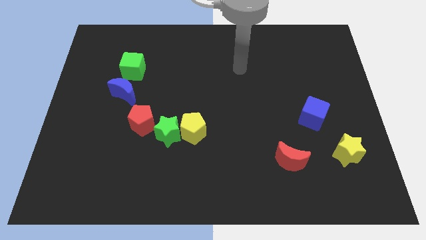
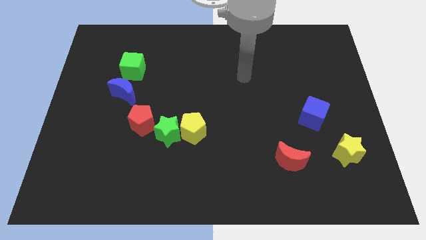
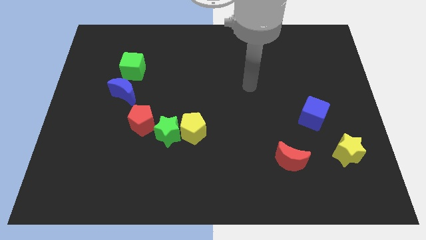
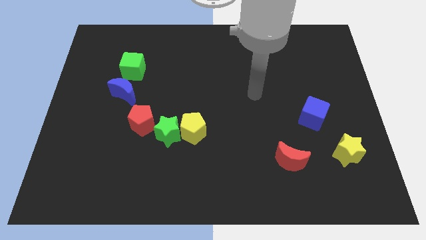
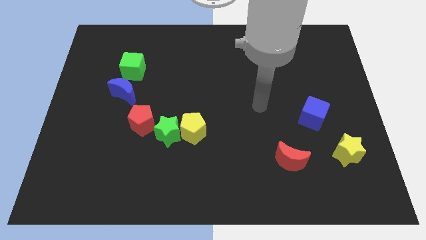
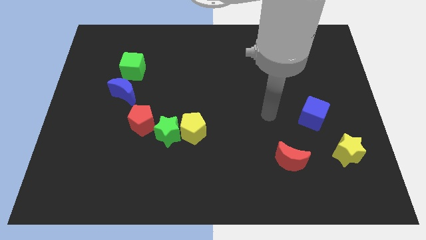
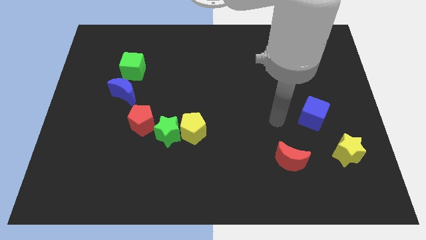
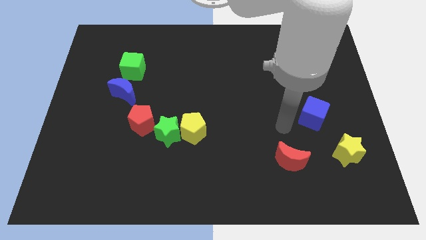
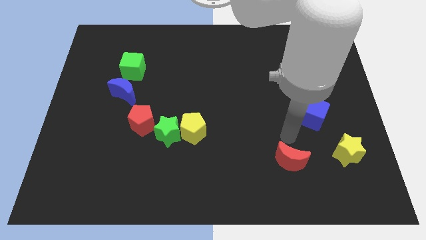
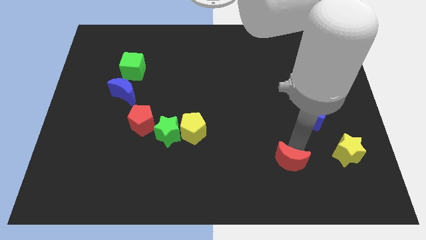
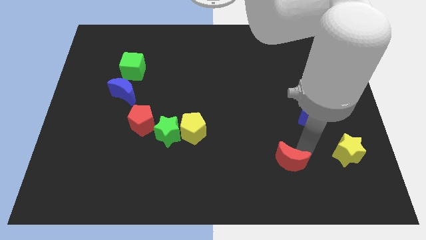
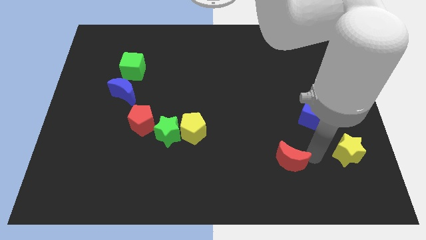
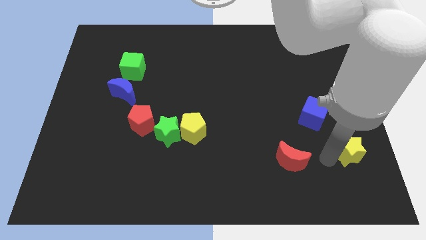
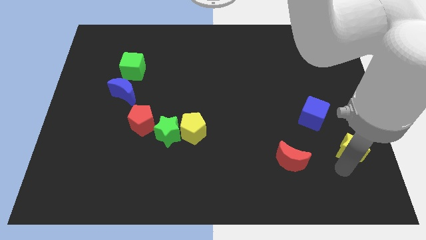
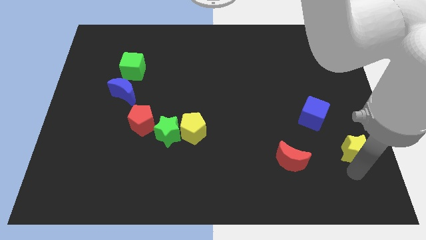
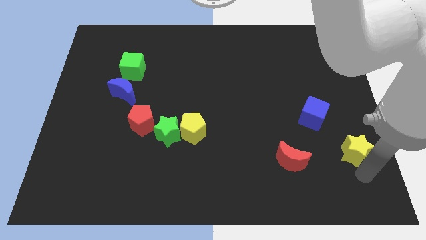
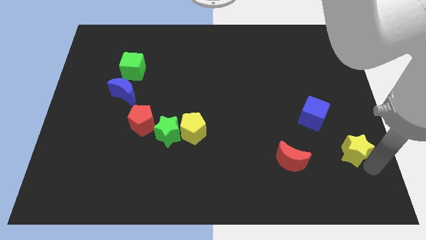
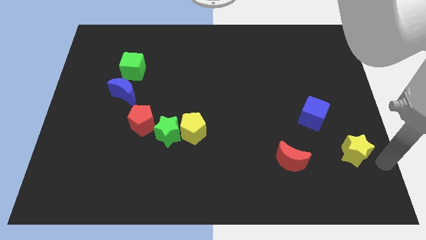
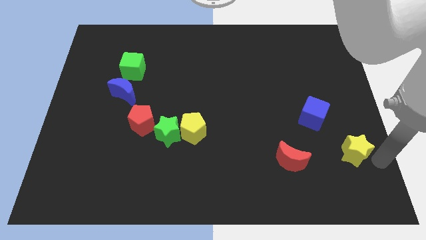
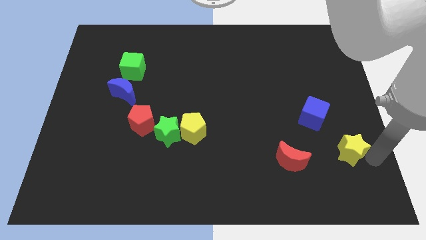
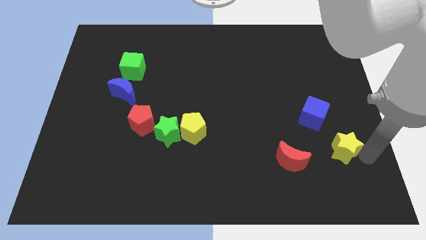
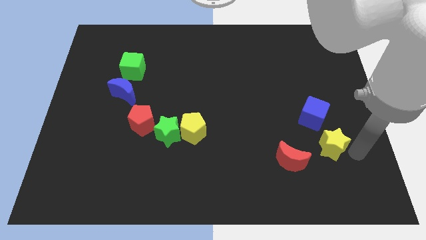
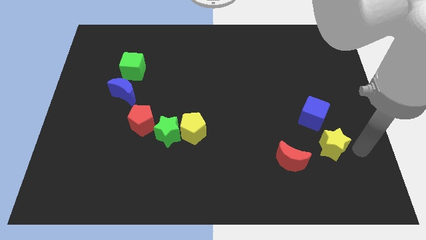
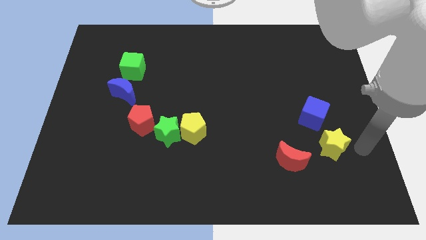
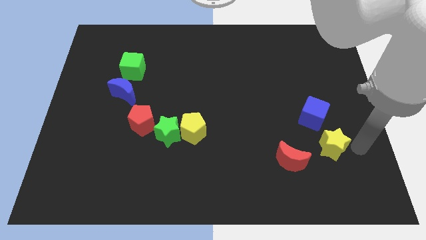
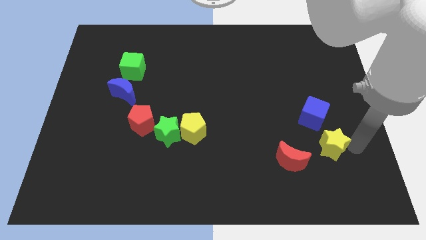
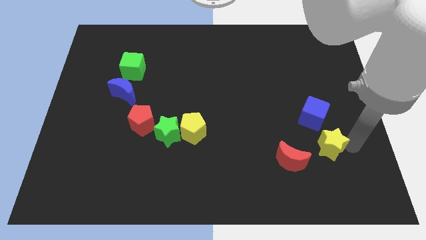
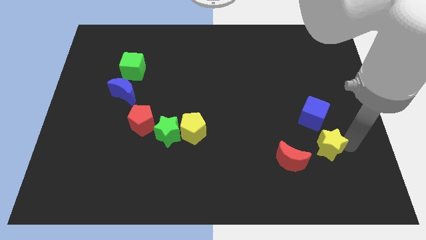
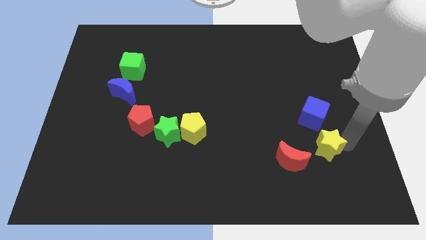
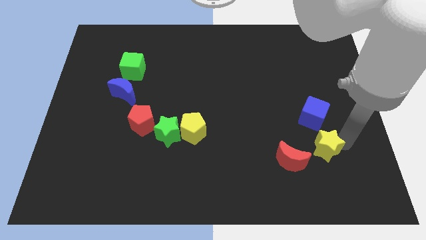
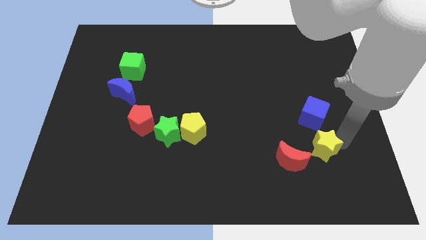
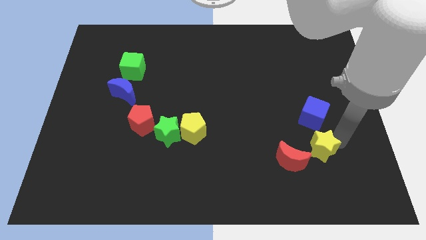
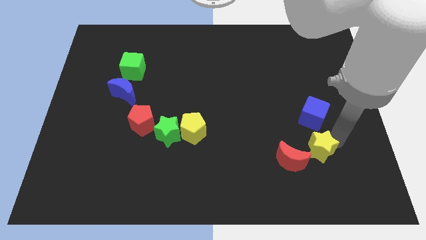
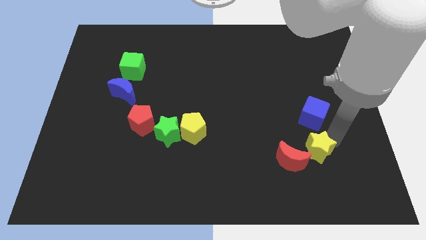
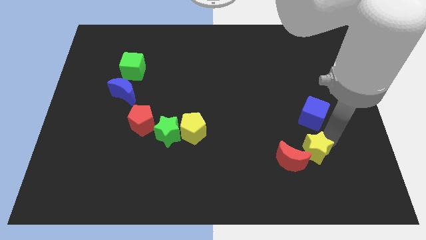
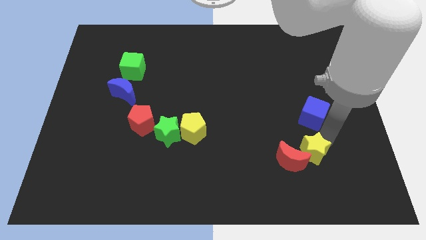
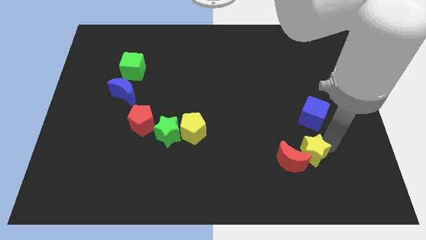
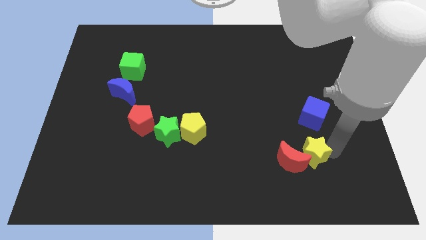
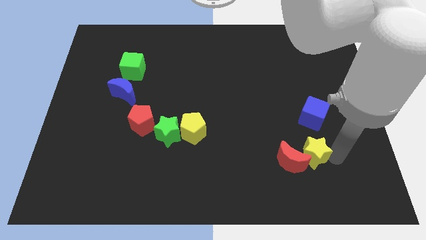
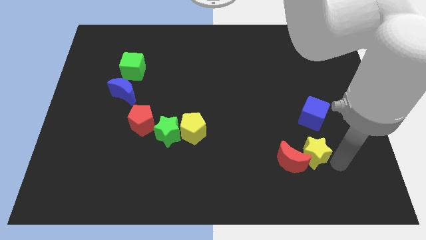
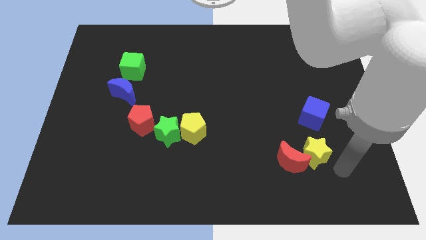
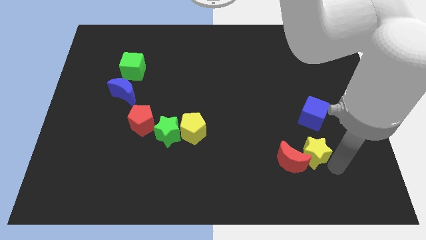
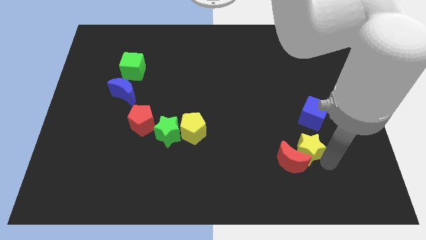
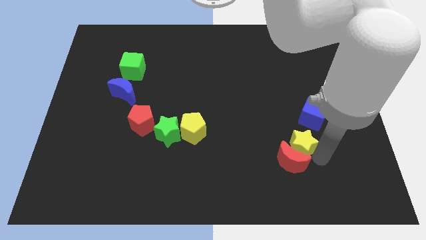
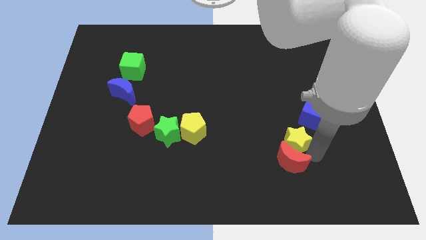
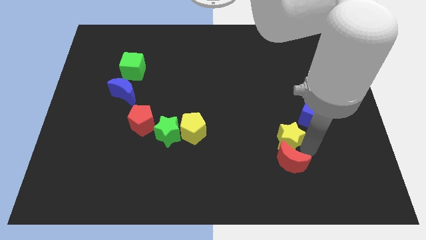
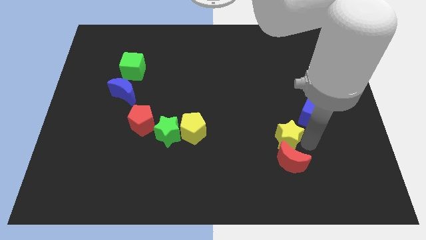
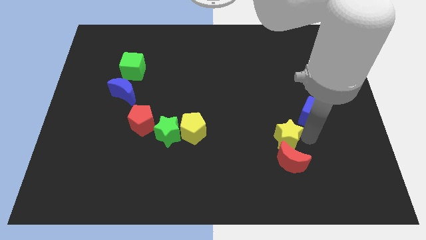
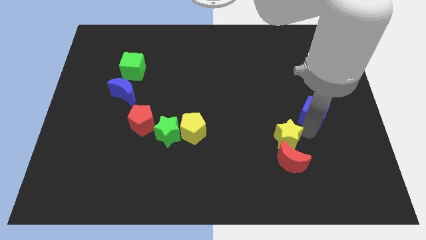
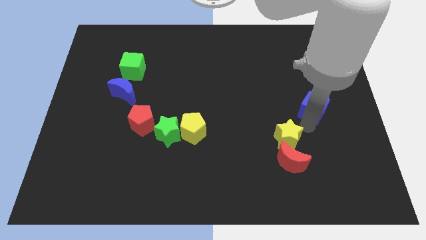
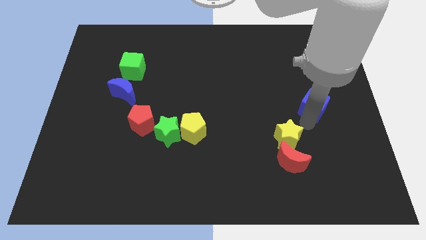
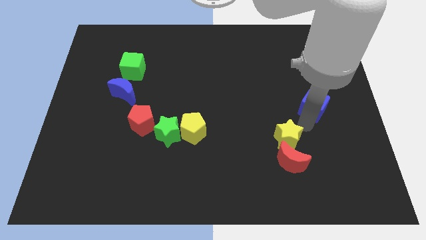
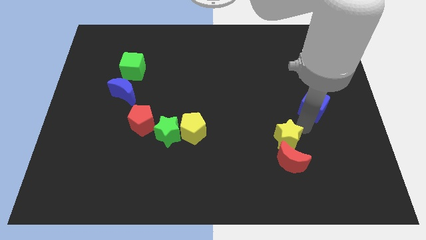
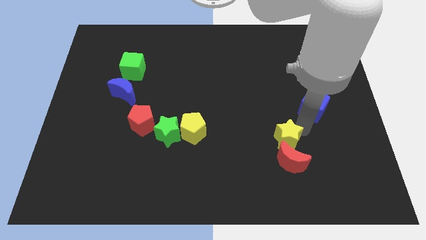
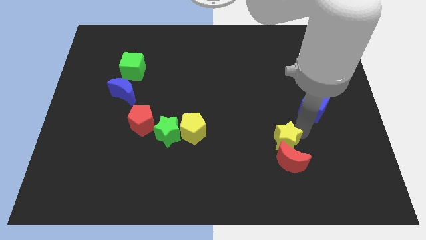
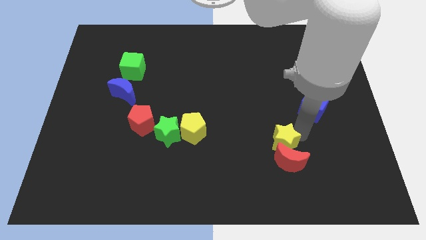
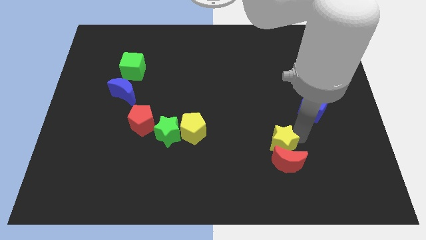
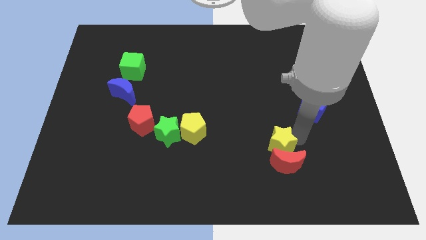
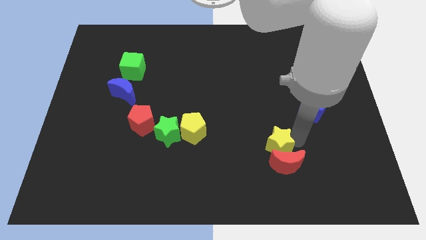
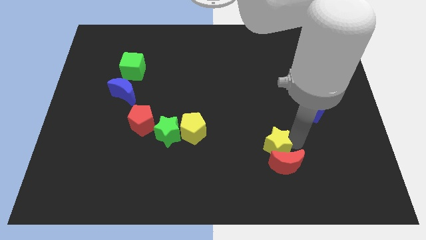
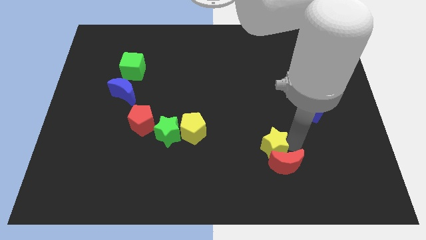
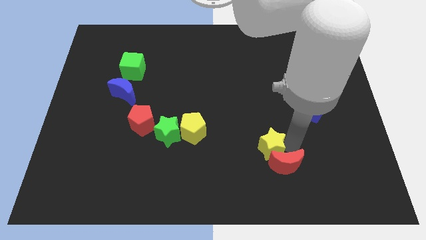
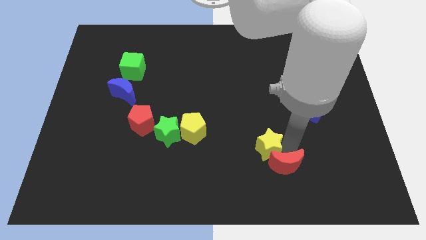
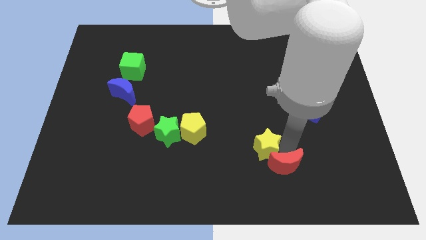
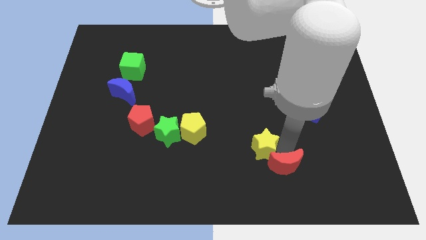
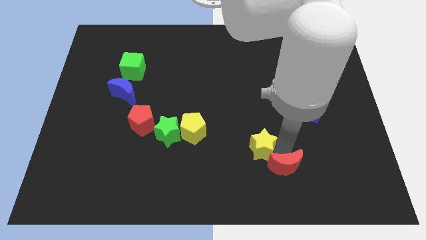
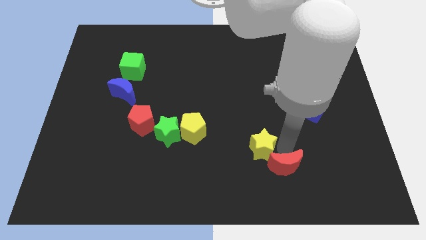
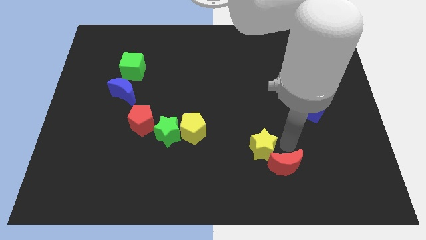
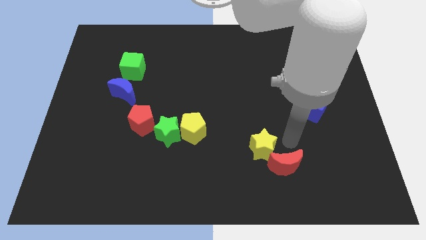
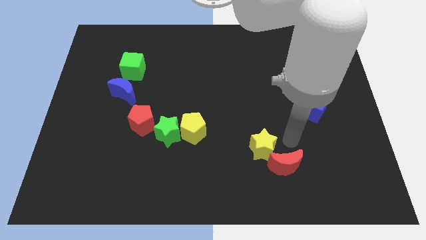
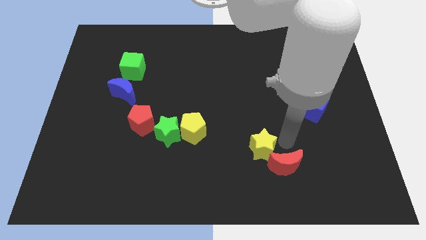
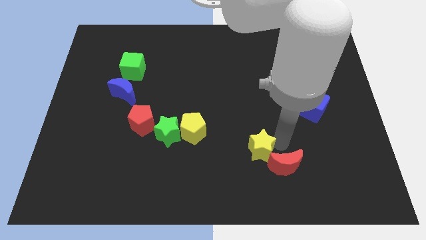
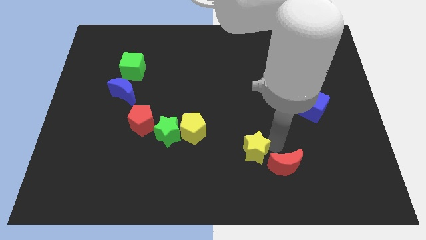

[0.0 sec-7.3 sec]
slide the yellow star to the left

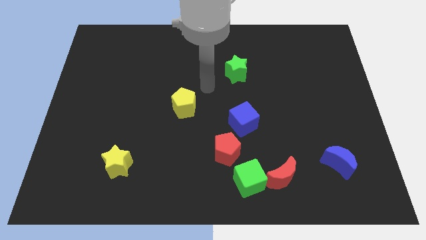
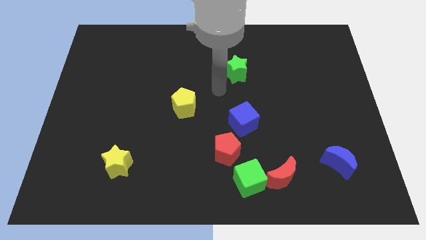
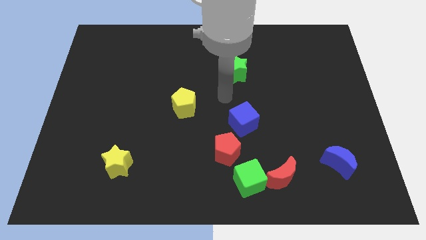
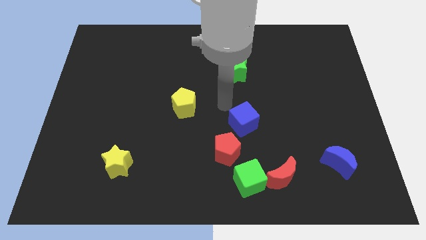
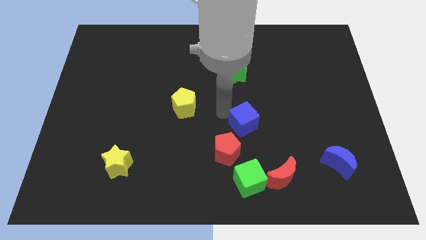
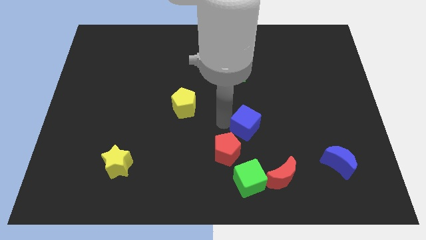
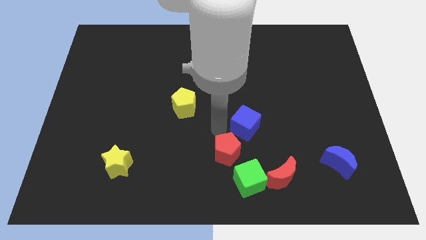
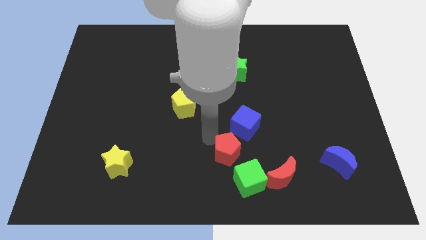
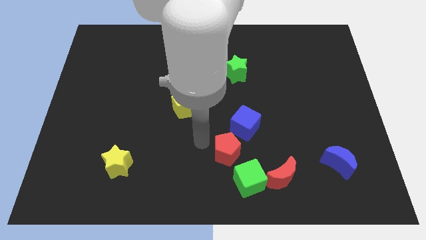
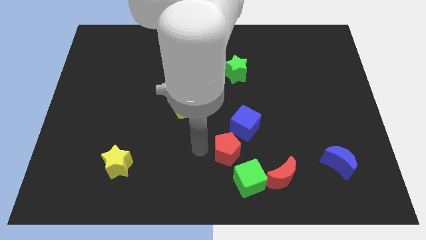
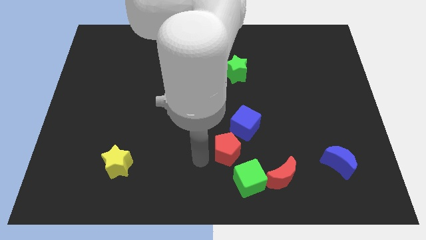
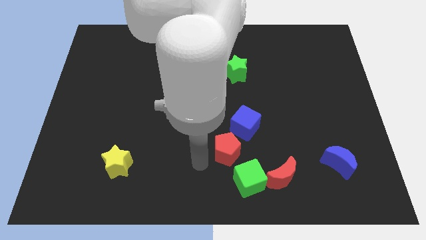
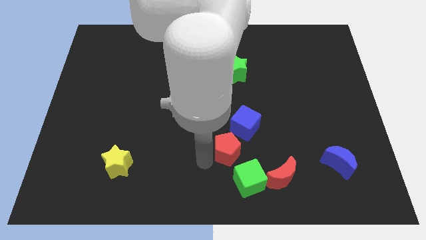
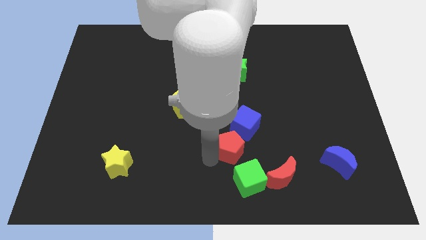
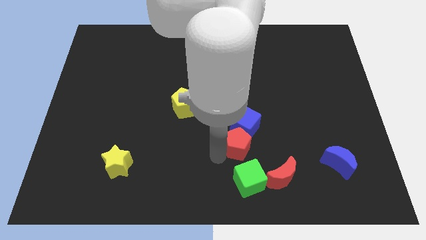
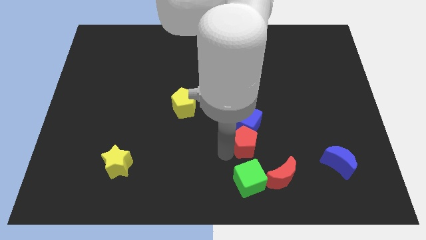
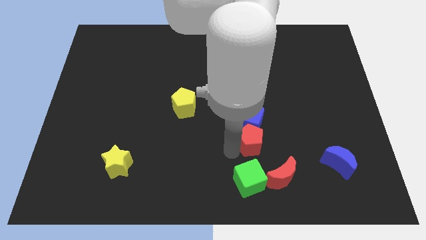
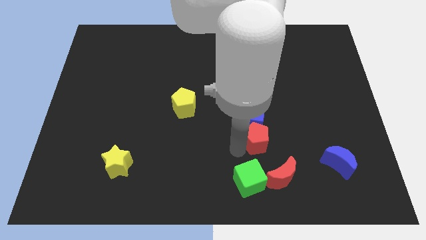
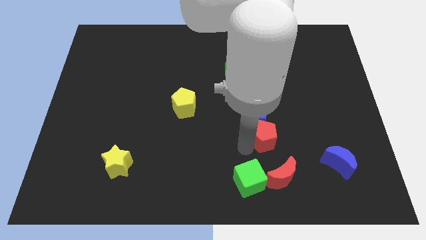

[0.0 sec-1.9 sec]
slide the red pentagon upwards and then to the right slightly
